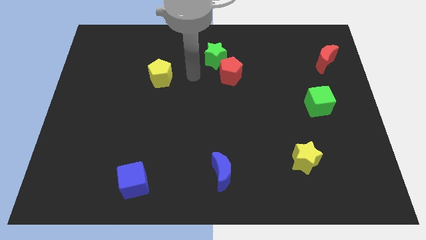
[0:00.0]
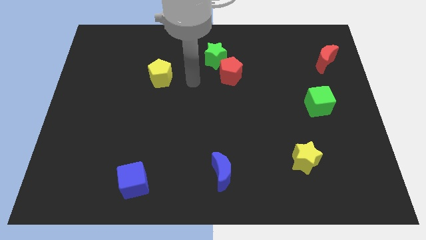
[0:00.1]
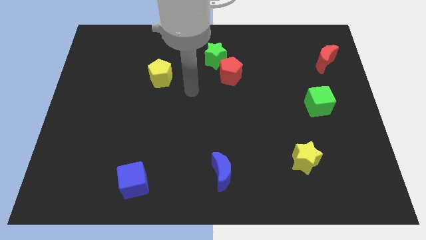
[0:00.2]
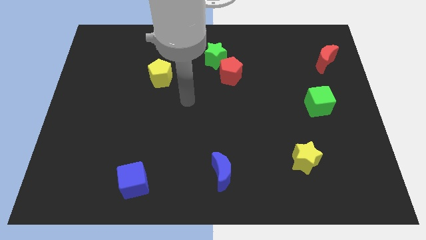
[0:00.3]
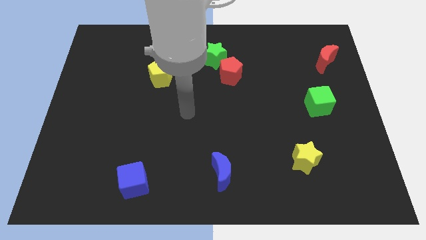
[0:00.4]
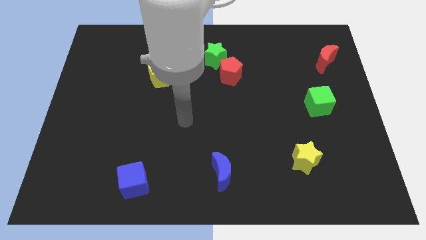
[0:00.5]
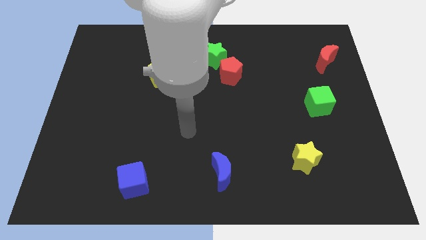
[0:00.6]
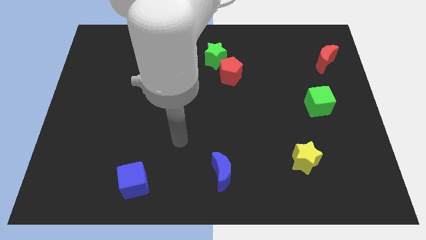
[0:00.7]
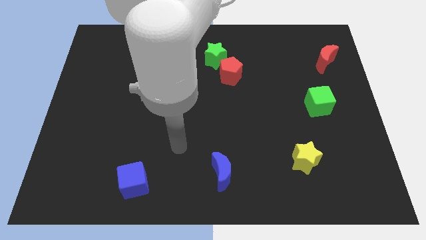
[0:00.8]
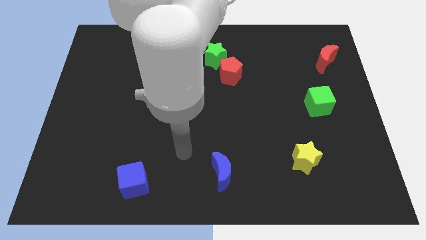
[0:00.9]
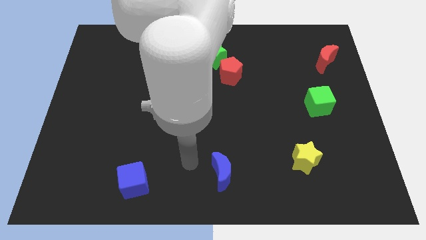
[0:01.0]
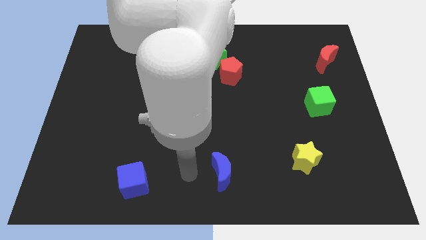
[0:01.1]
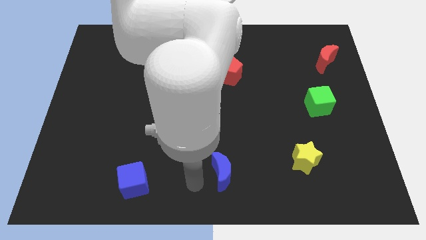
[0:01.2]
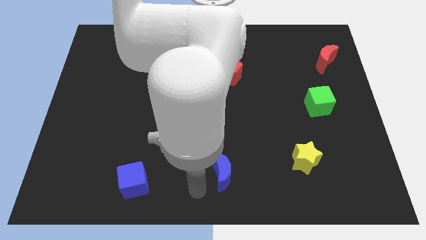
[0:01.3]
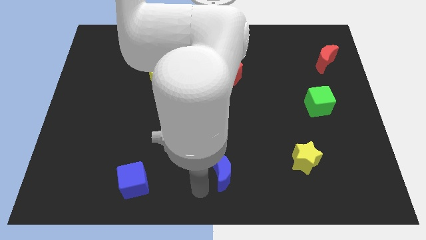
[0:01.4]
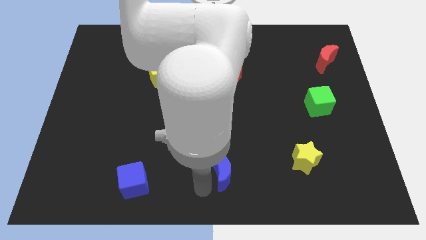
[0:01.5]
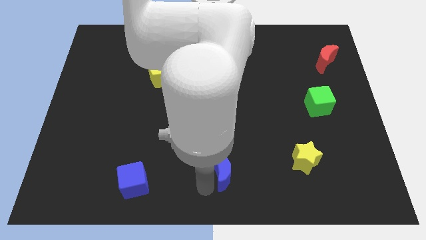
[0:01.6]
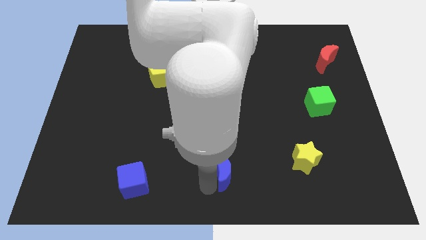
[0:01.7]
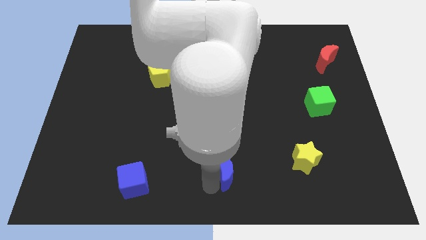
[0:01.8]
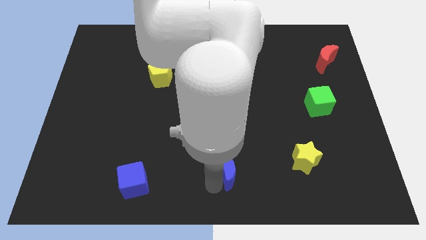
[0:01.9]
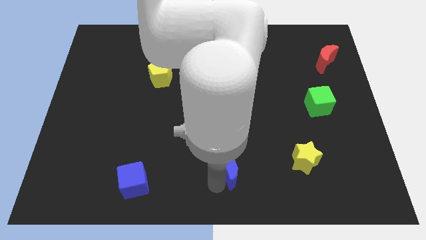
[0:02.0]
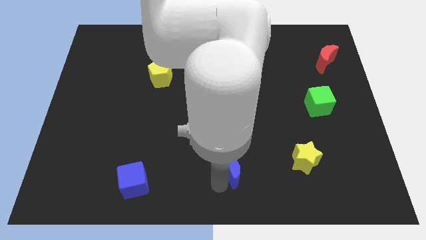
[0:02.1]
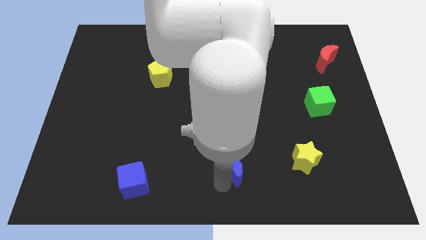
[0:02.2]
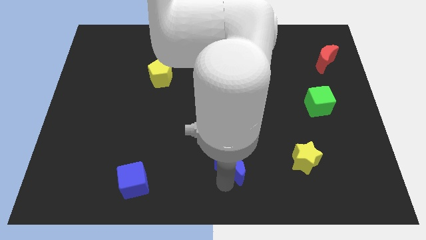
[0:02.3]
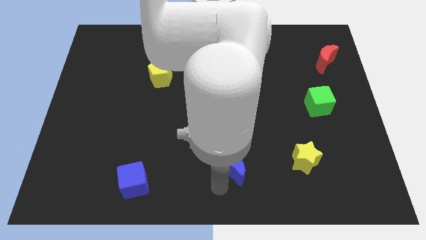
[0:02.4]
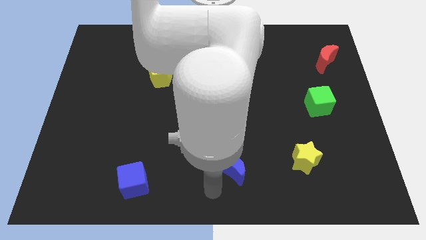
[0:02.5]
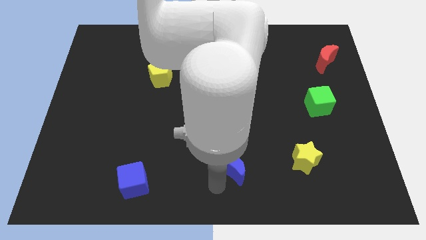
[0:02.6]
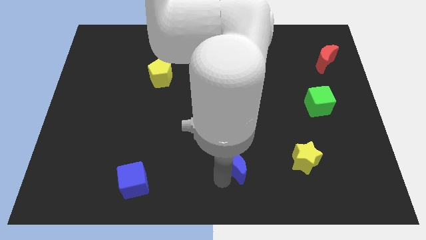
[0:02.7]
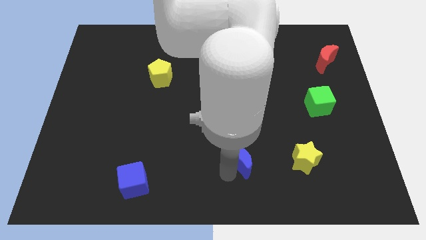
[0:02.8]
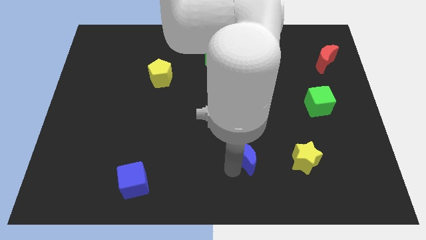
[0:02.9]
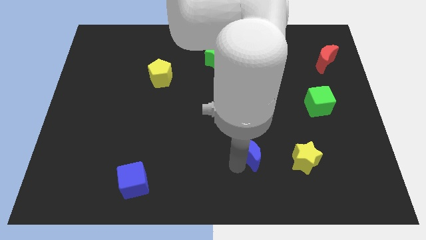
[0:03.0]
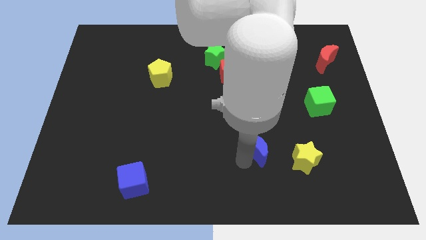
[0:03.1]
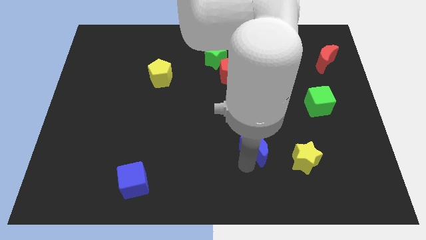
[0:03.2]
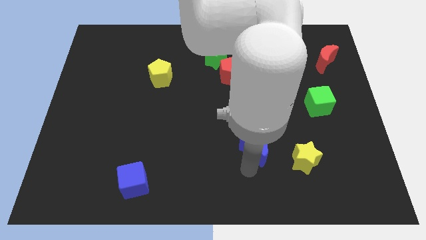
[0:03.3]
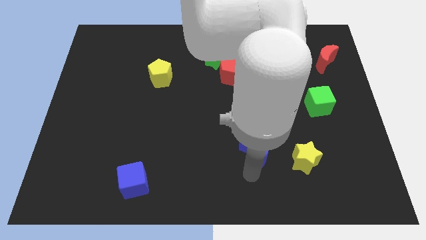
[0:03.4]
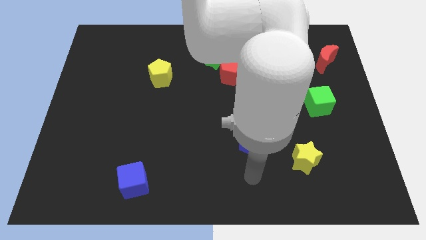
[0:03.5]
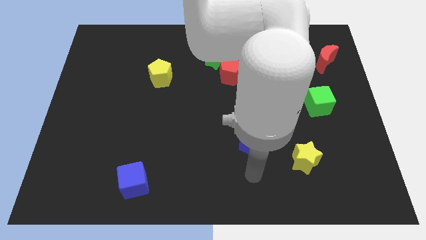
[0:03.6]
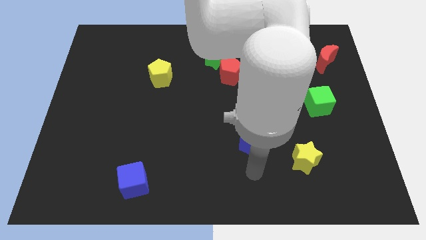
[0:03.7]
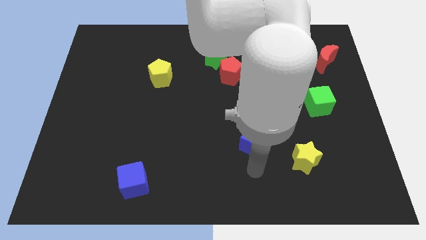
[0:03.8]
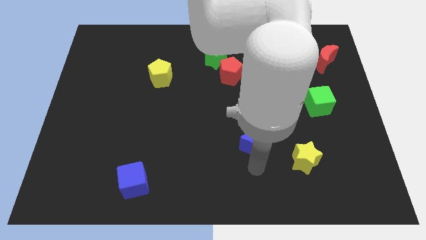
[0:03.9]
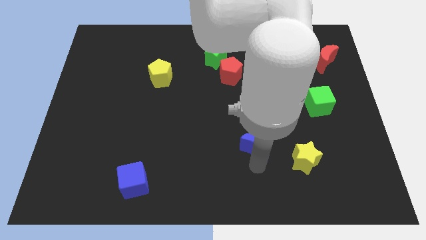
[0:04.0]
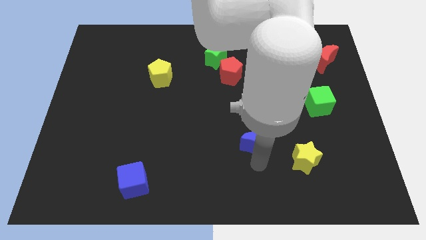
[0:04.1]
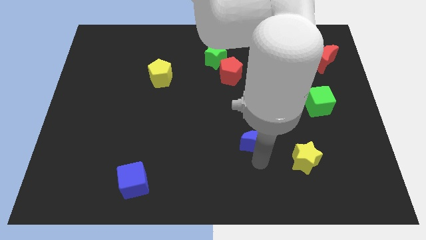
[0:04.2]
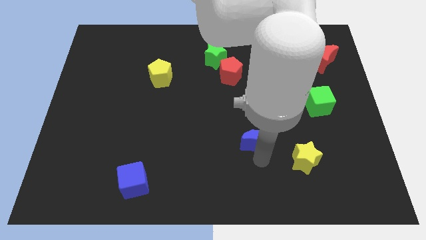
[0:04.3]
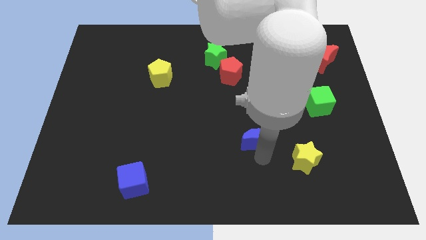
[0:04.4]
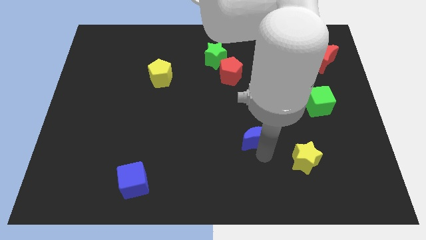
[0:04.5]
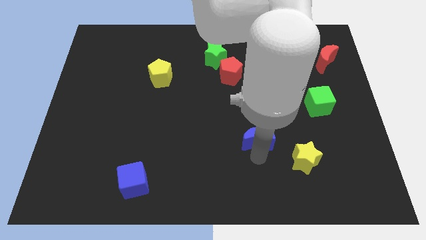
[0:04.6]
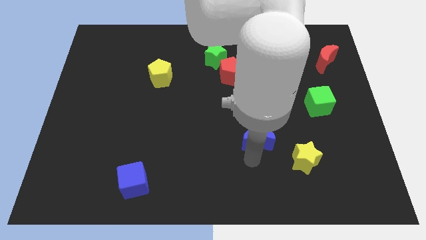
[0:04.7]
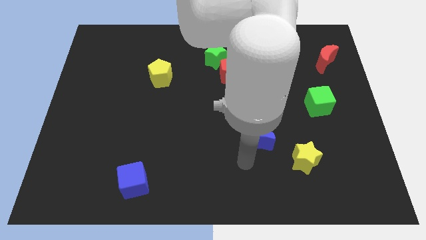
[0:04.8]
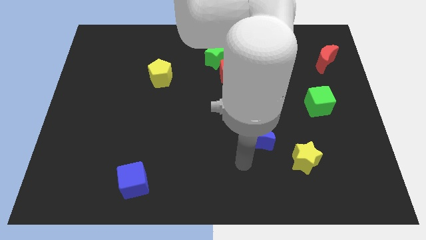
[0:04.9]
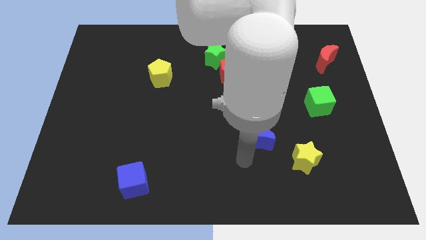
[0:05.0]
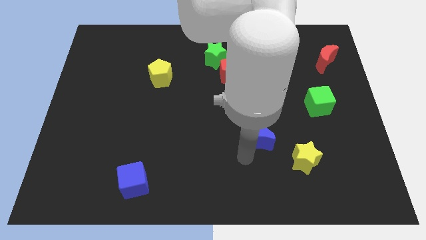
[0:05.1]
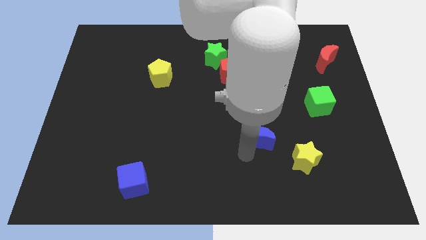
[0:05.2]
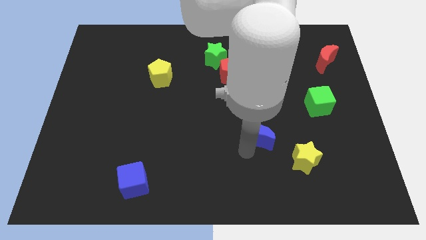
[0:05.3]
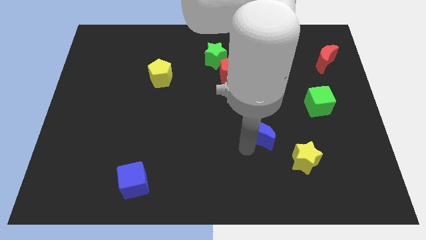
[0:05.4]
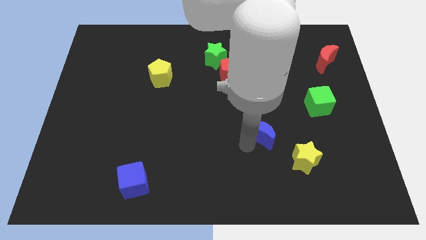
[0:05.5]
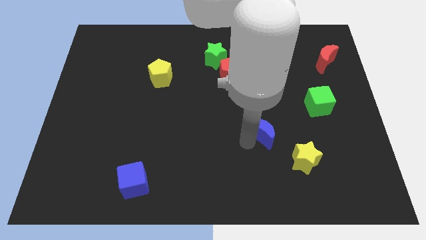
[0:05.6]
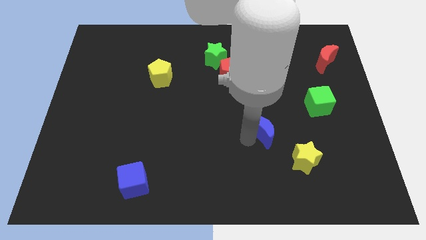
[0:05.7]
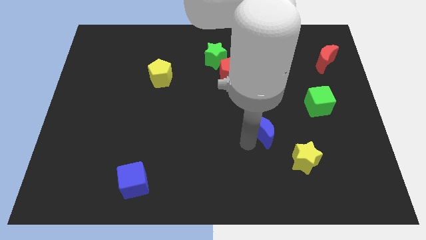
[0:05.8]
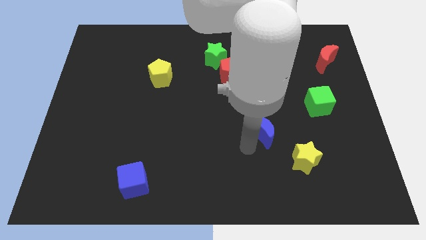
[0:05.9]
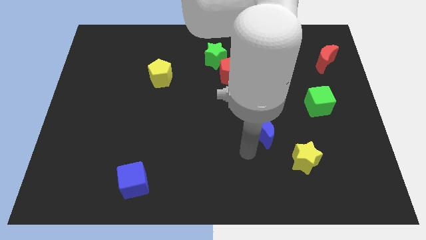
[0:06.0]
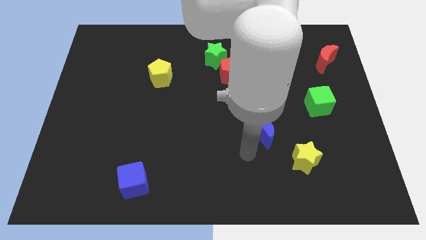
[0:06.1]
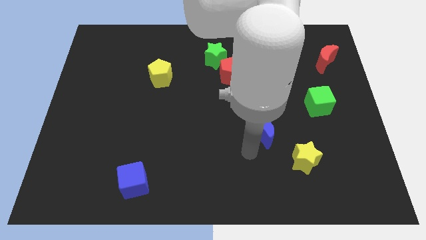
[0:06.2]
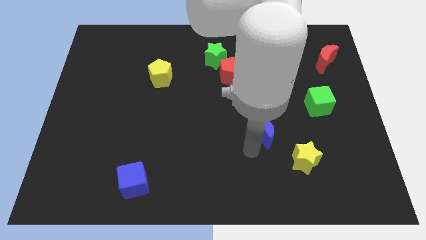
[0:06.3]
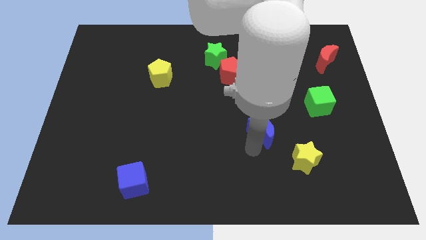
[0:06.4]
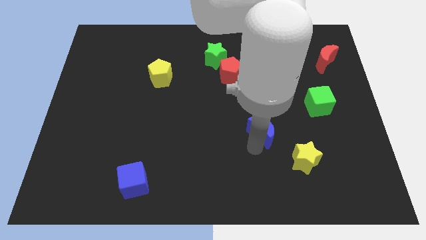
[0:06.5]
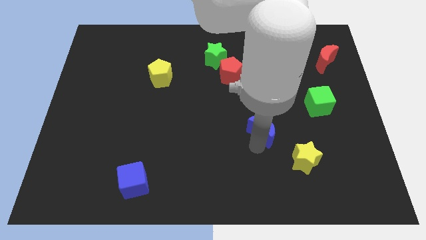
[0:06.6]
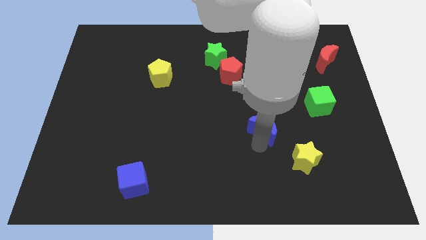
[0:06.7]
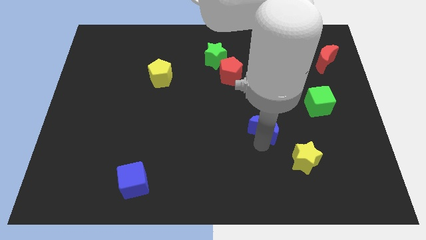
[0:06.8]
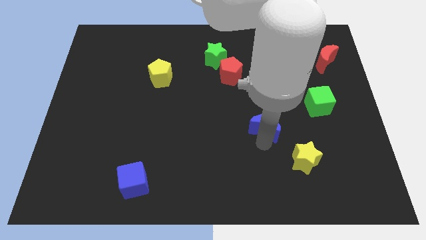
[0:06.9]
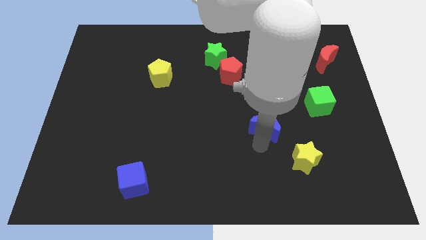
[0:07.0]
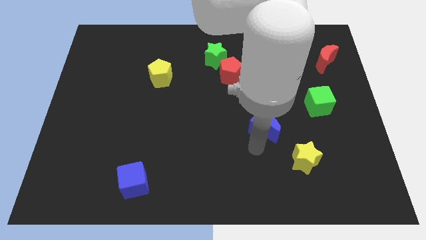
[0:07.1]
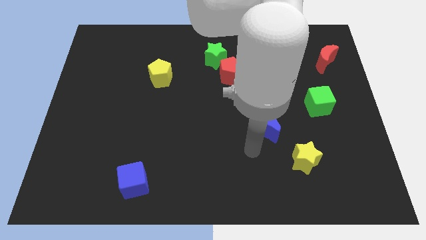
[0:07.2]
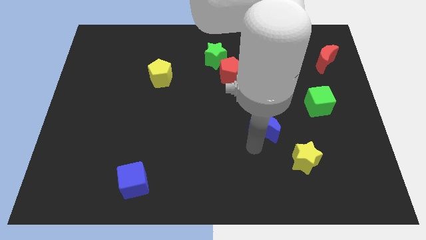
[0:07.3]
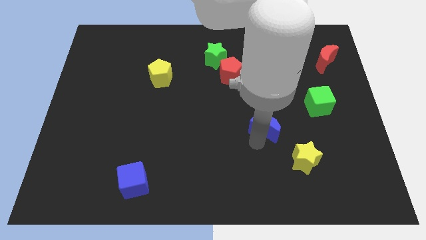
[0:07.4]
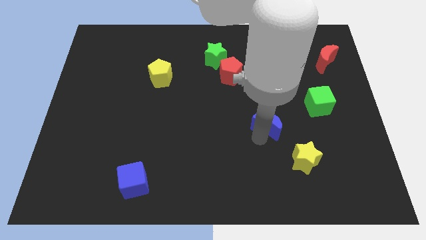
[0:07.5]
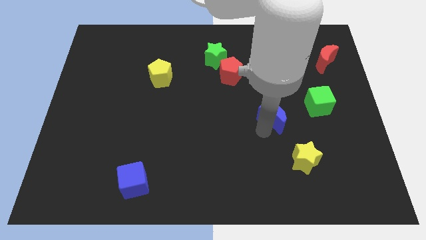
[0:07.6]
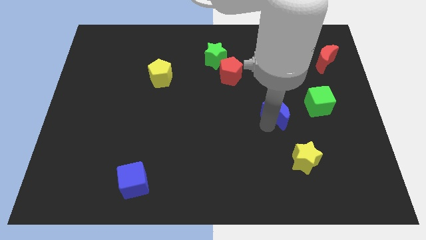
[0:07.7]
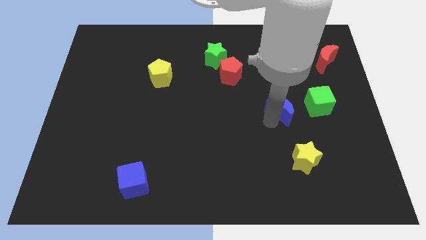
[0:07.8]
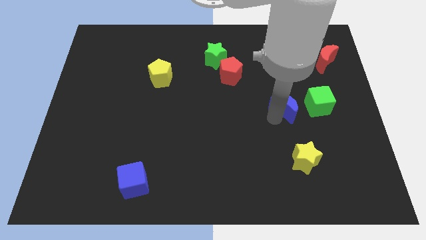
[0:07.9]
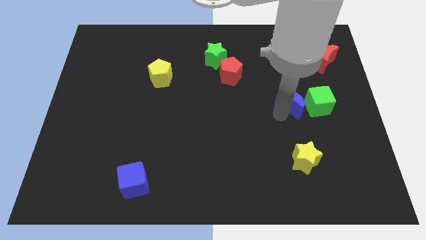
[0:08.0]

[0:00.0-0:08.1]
push the blue moon to the top left of the green cube

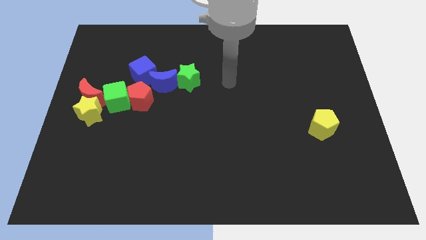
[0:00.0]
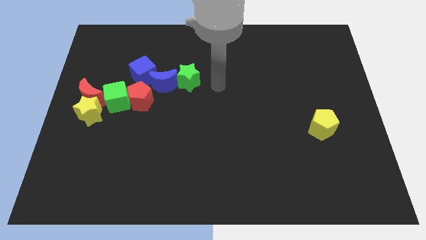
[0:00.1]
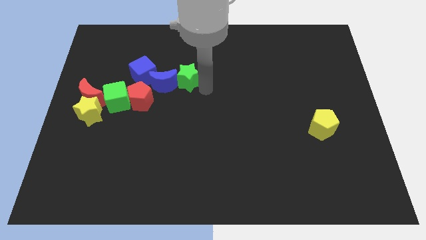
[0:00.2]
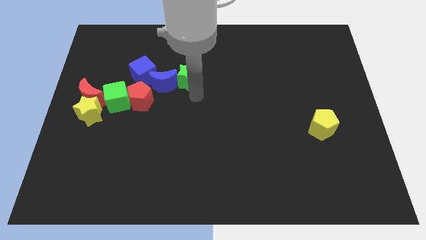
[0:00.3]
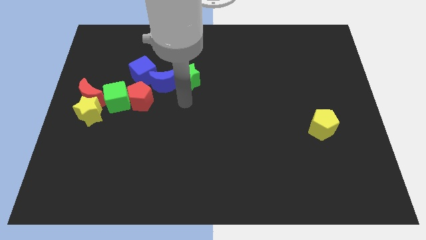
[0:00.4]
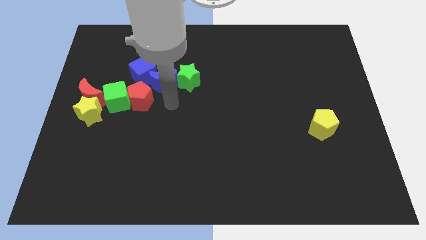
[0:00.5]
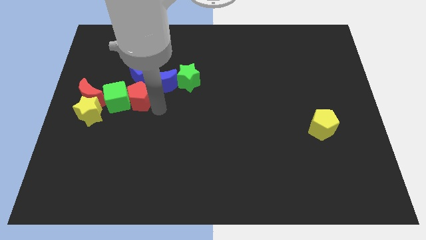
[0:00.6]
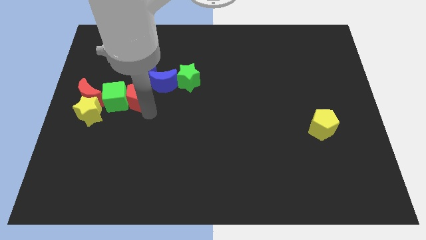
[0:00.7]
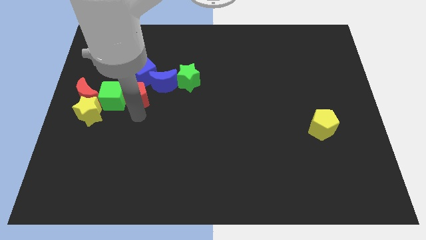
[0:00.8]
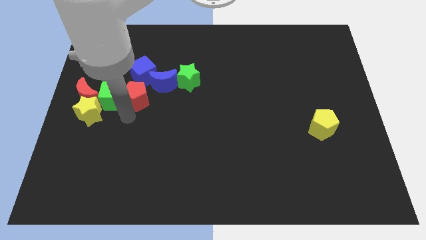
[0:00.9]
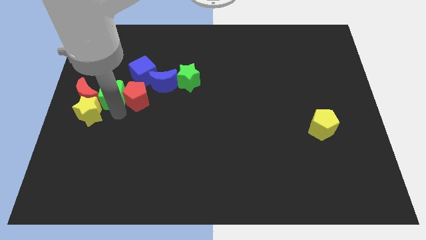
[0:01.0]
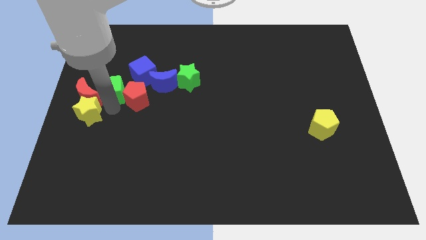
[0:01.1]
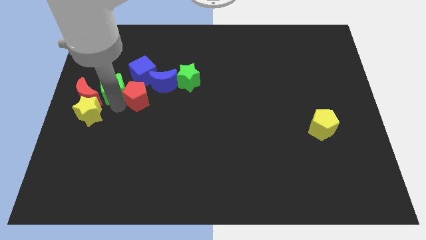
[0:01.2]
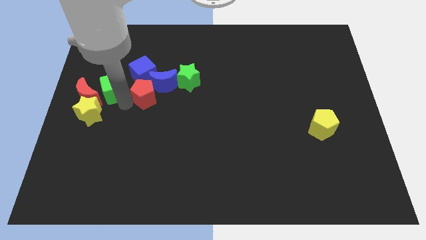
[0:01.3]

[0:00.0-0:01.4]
put the red pentagon diagonally down and to the right of the blue cube
